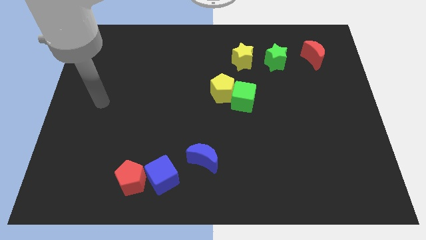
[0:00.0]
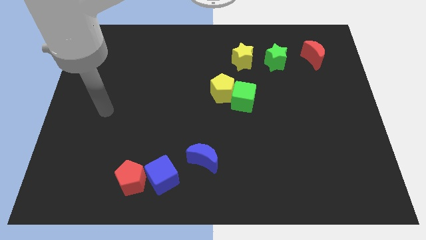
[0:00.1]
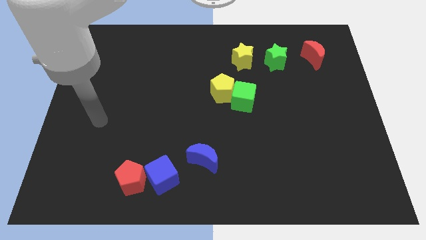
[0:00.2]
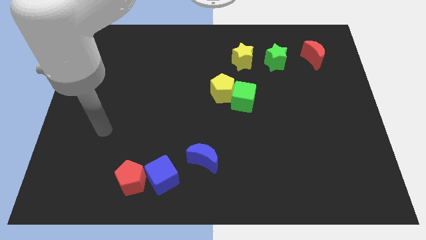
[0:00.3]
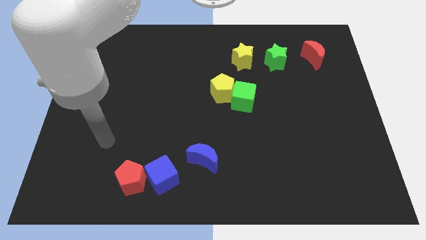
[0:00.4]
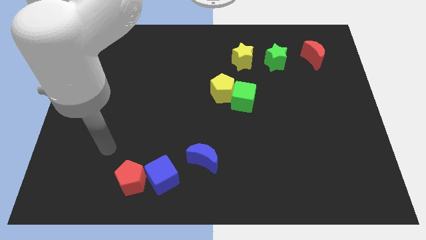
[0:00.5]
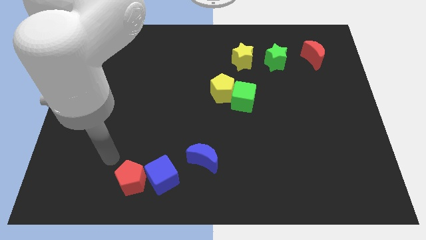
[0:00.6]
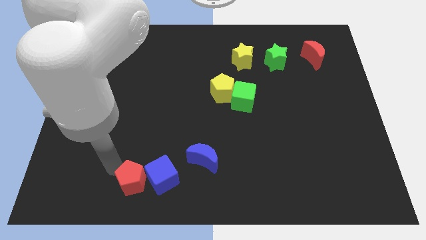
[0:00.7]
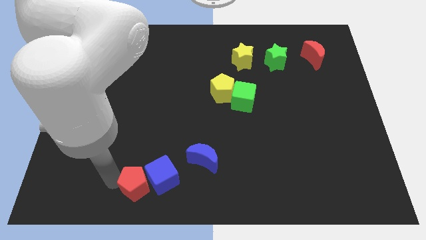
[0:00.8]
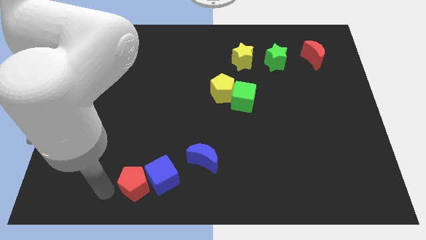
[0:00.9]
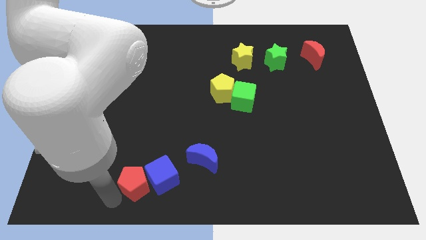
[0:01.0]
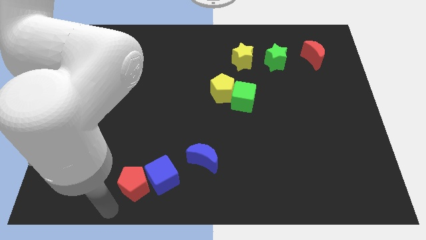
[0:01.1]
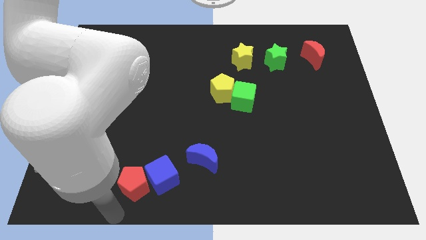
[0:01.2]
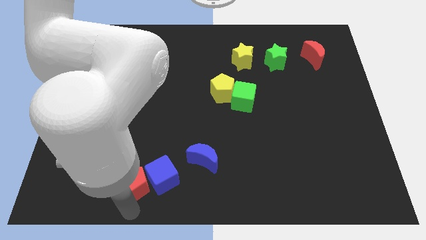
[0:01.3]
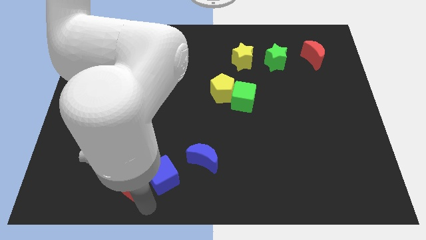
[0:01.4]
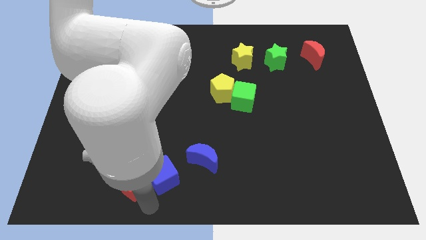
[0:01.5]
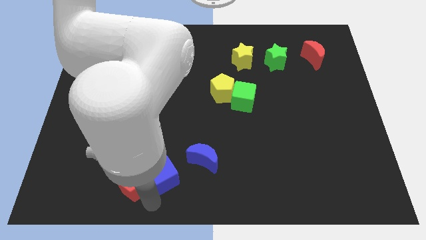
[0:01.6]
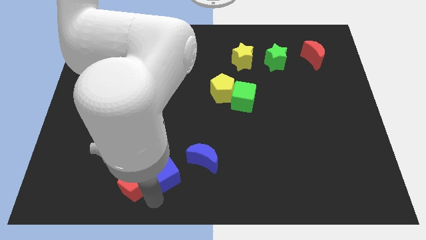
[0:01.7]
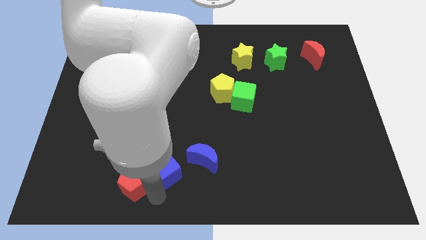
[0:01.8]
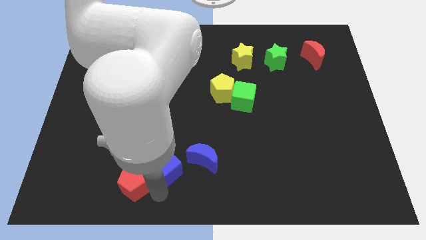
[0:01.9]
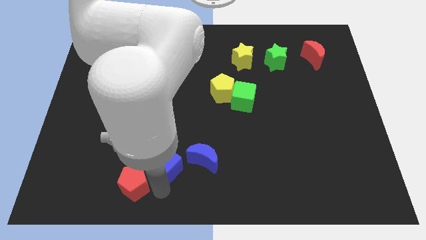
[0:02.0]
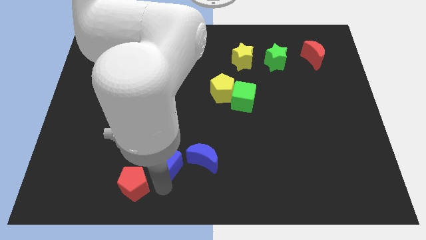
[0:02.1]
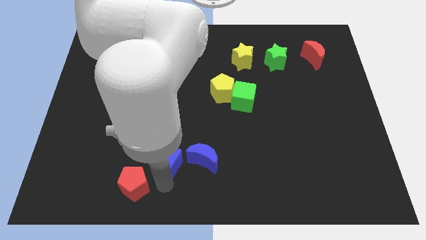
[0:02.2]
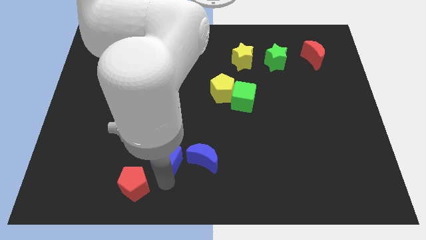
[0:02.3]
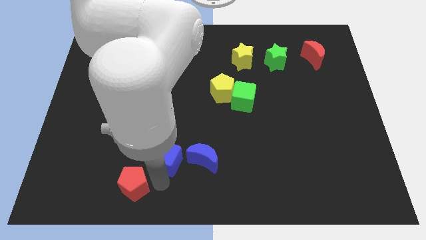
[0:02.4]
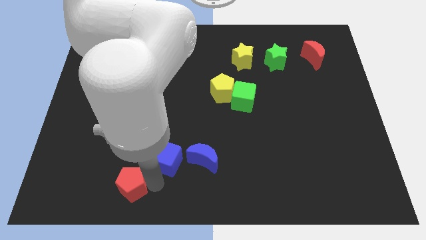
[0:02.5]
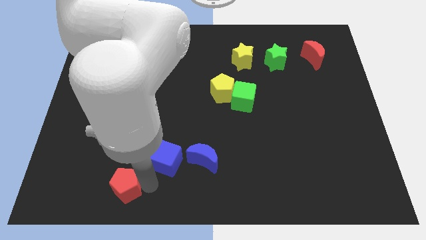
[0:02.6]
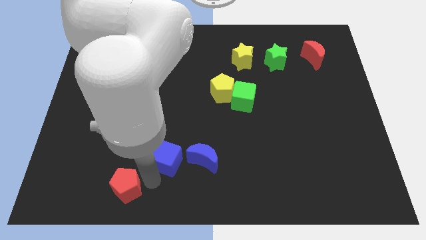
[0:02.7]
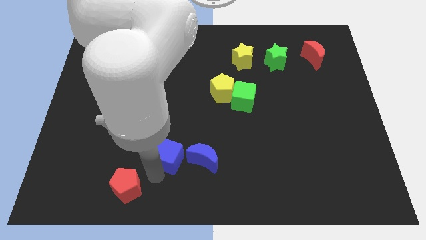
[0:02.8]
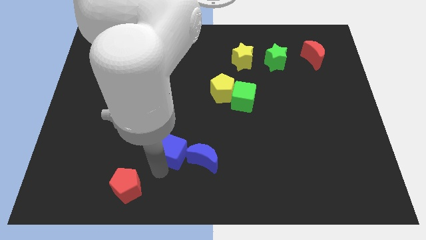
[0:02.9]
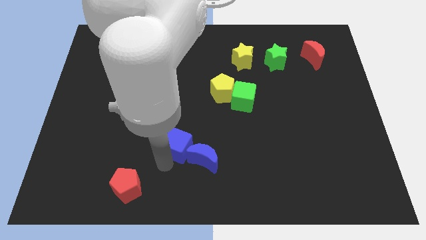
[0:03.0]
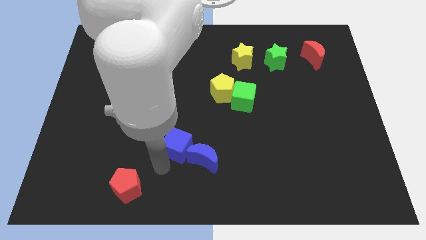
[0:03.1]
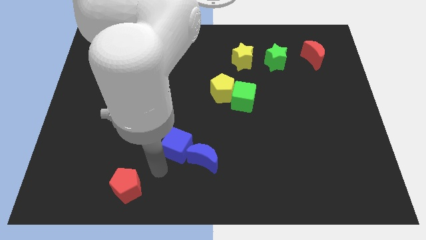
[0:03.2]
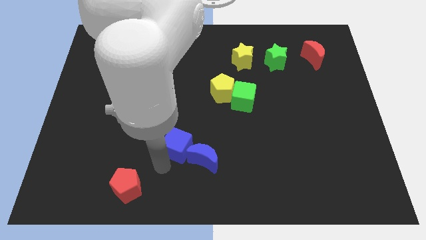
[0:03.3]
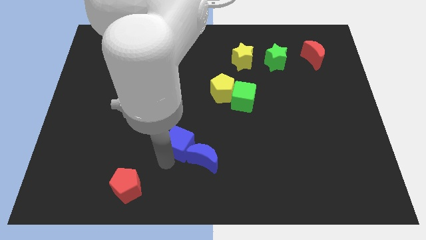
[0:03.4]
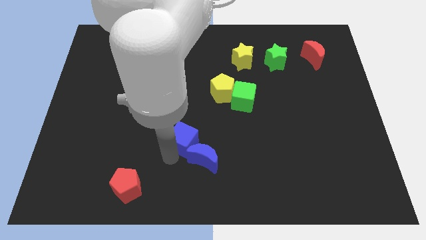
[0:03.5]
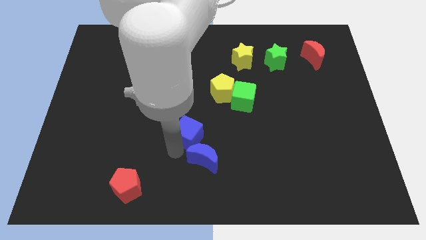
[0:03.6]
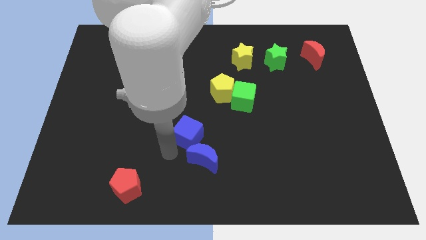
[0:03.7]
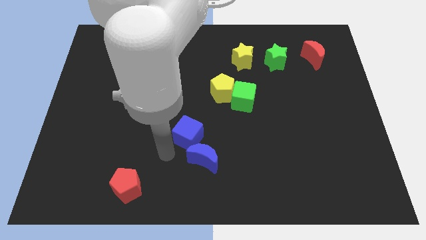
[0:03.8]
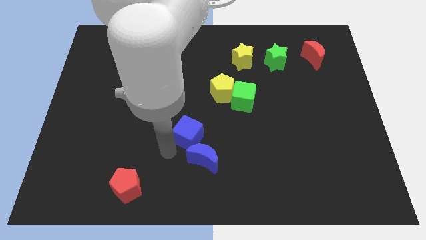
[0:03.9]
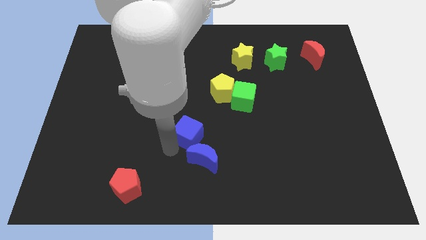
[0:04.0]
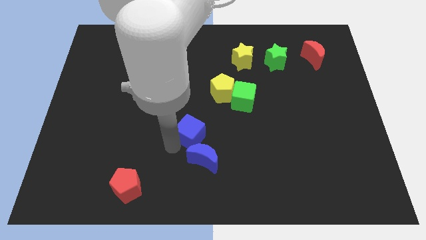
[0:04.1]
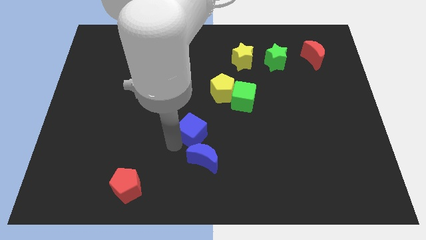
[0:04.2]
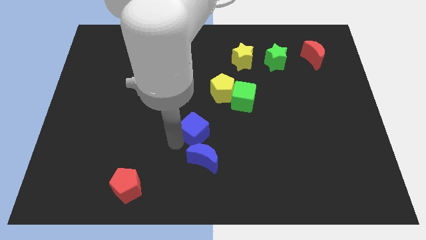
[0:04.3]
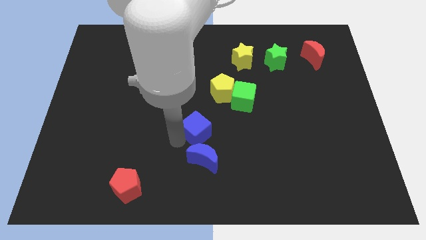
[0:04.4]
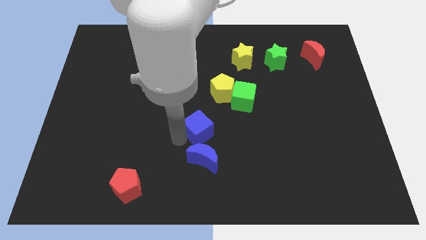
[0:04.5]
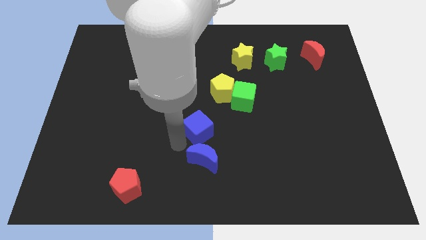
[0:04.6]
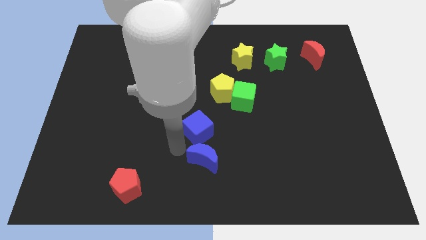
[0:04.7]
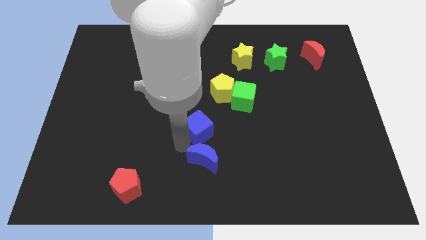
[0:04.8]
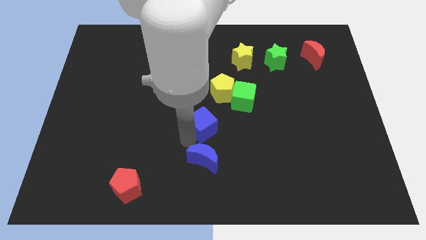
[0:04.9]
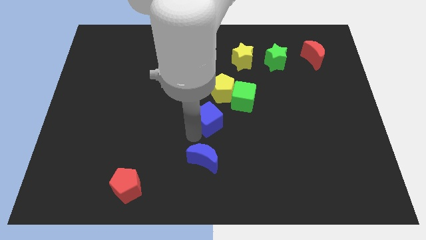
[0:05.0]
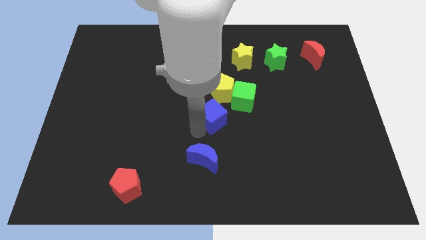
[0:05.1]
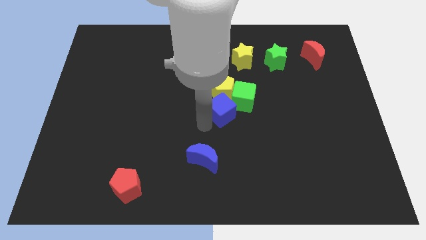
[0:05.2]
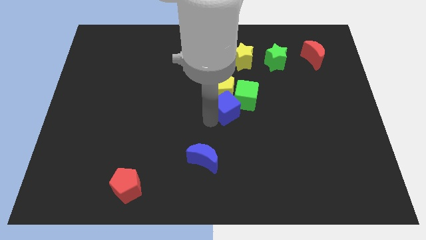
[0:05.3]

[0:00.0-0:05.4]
slide the blue cube to the green cube

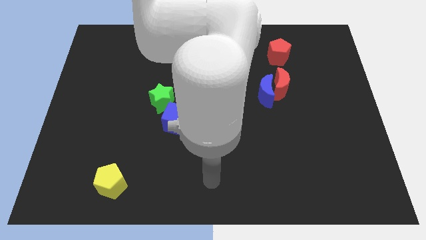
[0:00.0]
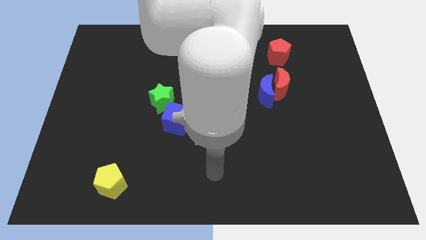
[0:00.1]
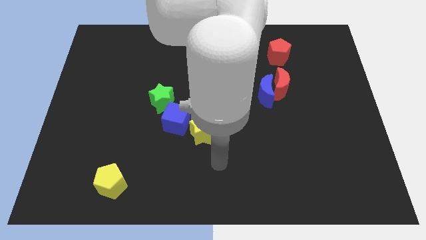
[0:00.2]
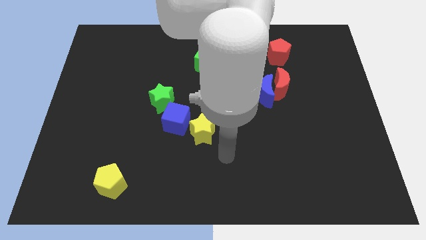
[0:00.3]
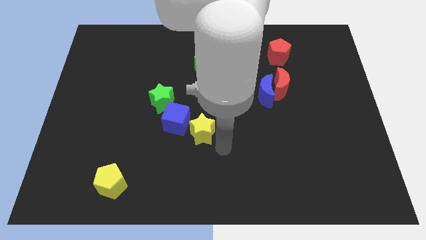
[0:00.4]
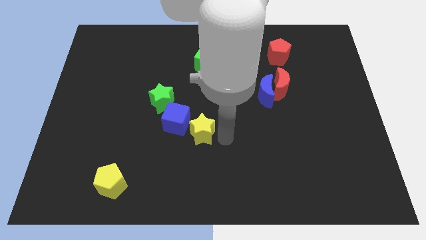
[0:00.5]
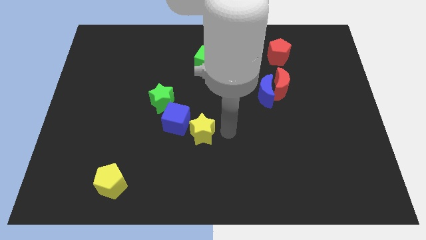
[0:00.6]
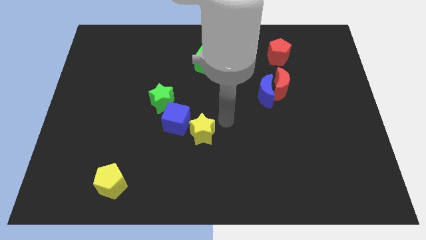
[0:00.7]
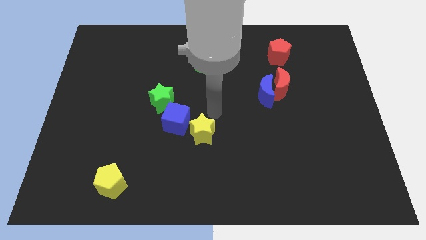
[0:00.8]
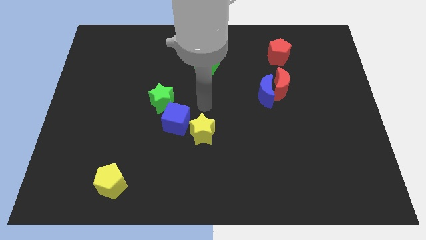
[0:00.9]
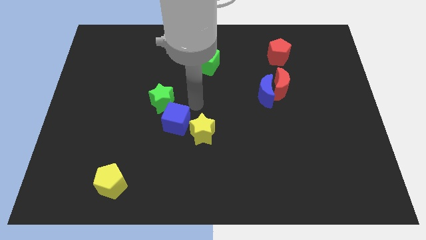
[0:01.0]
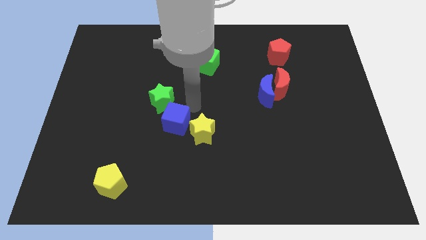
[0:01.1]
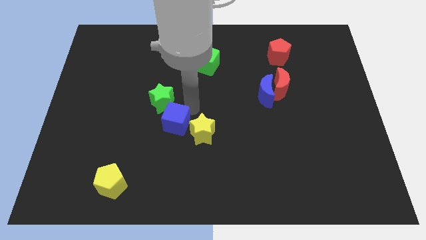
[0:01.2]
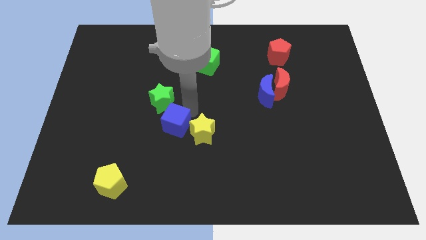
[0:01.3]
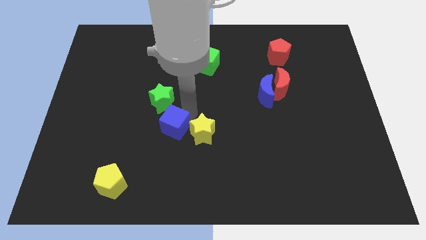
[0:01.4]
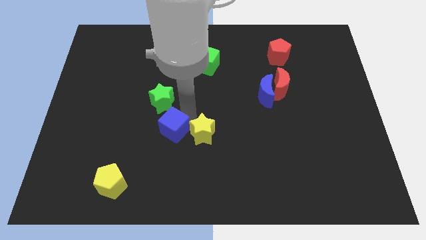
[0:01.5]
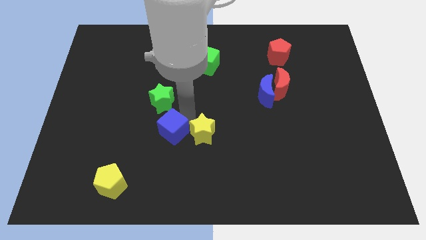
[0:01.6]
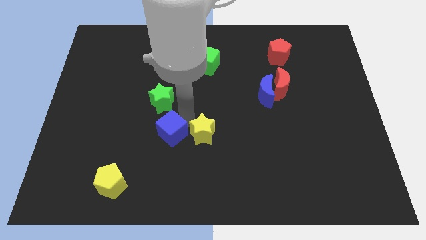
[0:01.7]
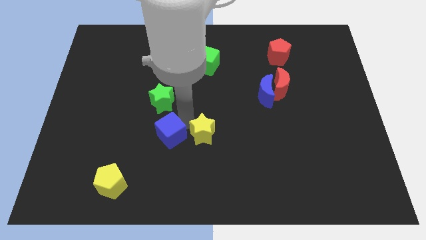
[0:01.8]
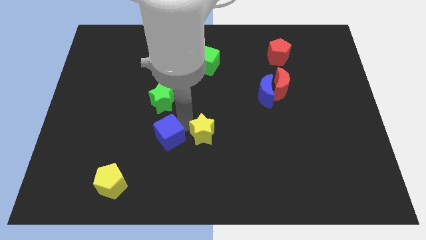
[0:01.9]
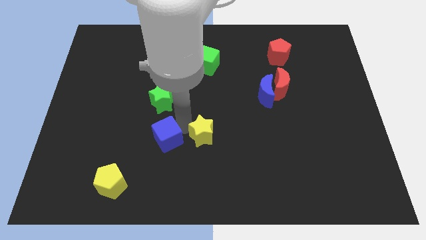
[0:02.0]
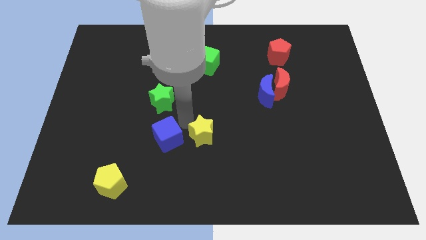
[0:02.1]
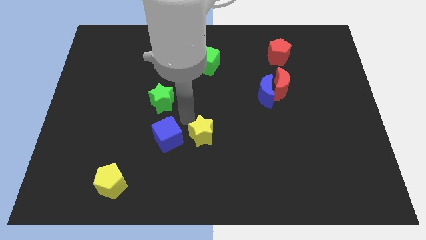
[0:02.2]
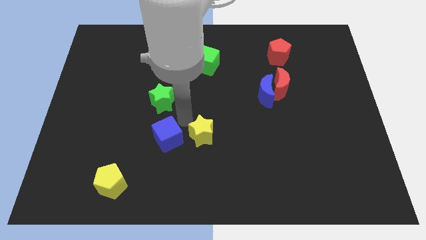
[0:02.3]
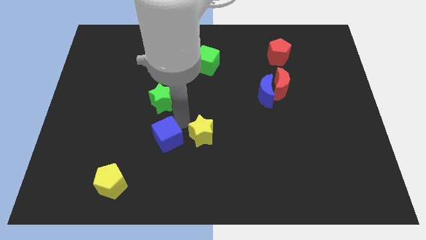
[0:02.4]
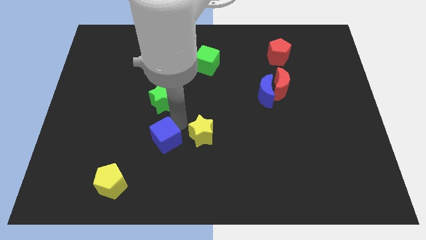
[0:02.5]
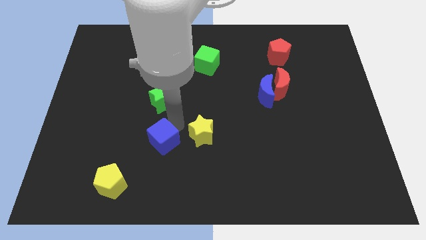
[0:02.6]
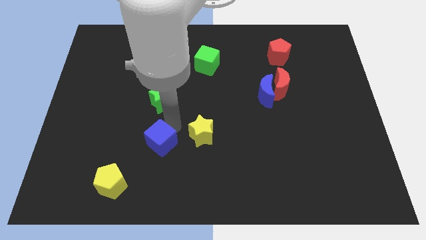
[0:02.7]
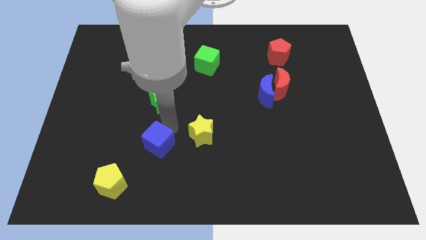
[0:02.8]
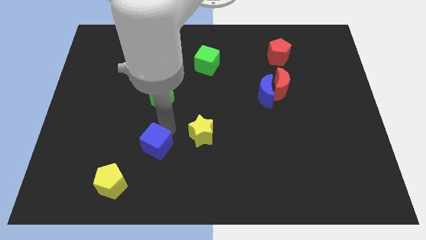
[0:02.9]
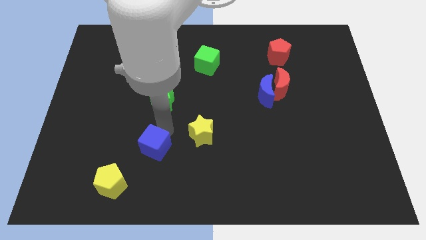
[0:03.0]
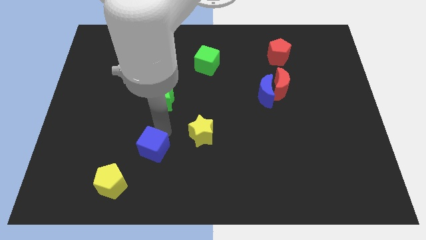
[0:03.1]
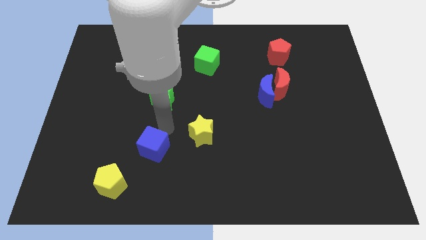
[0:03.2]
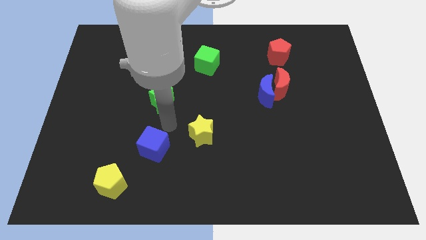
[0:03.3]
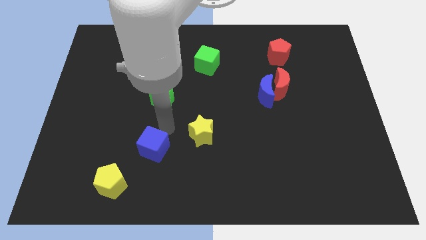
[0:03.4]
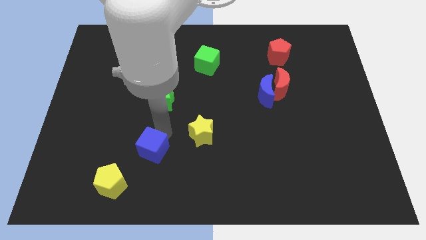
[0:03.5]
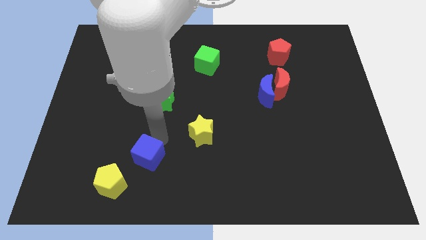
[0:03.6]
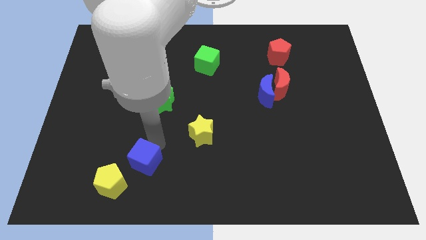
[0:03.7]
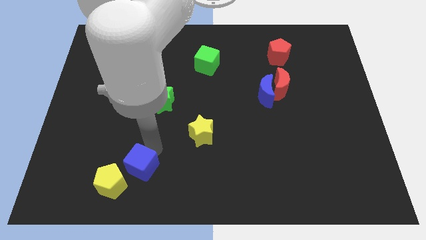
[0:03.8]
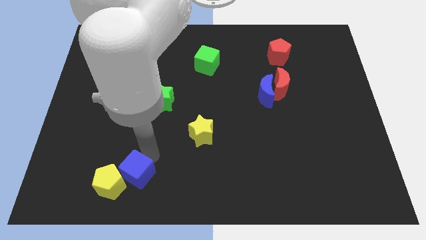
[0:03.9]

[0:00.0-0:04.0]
move the blue cube close to the yellow pentagon
